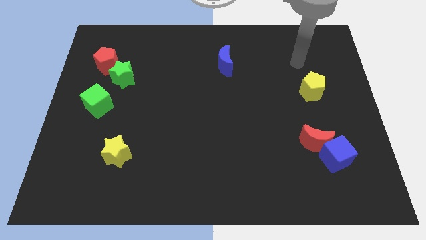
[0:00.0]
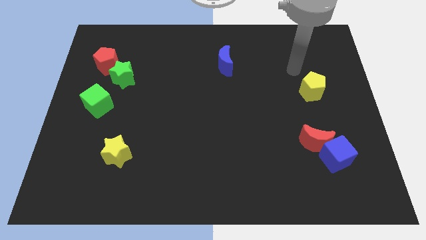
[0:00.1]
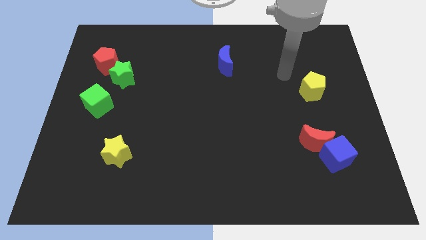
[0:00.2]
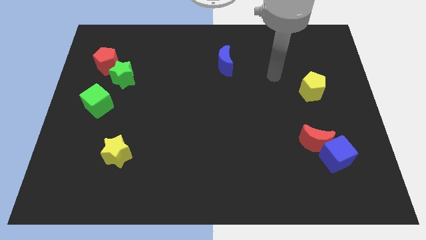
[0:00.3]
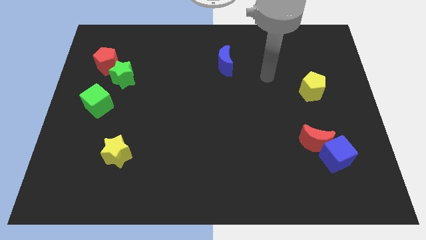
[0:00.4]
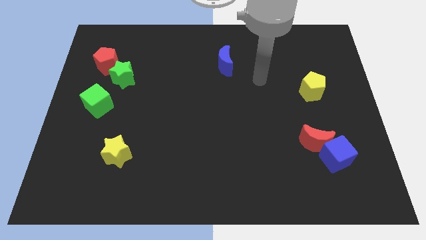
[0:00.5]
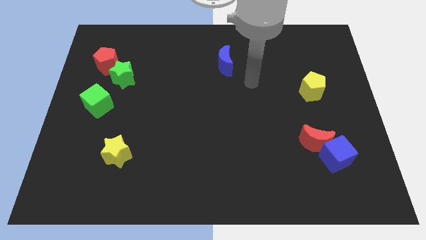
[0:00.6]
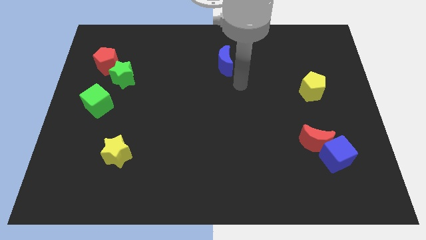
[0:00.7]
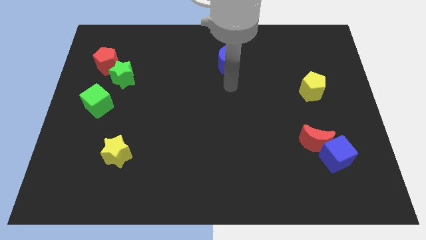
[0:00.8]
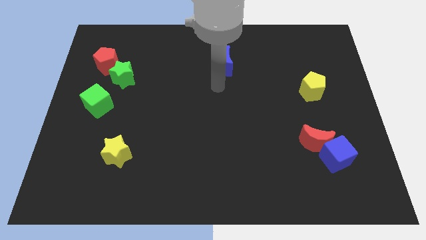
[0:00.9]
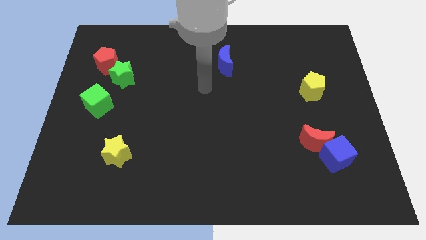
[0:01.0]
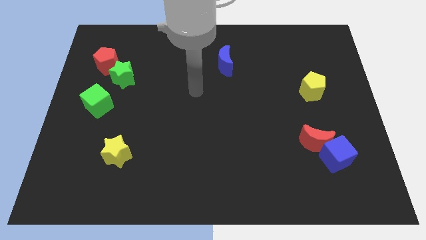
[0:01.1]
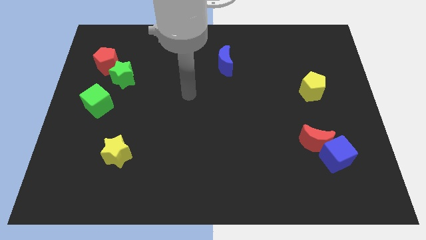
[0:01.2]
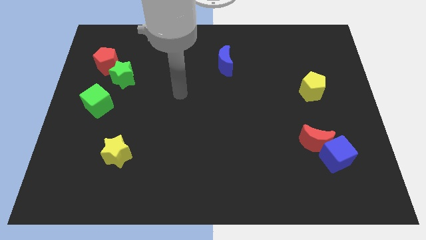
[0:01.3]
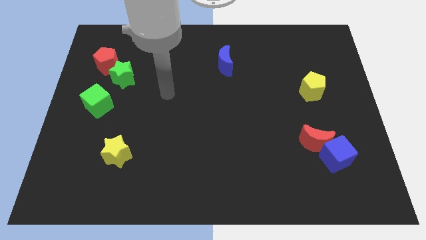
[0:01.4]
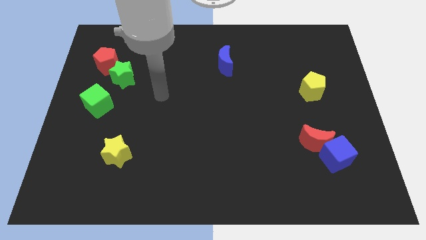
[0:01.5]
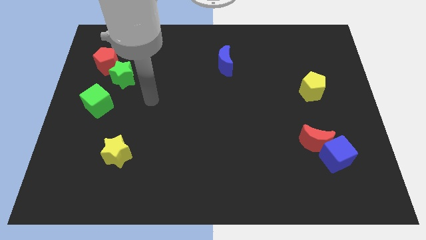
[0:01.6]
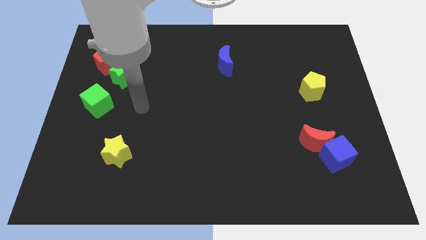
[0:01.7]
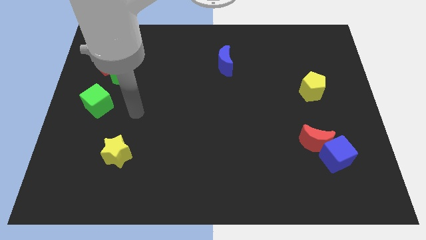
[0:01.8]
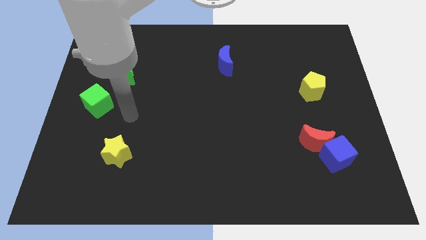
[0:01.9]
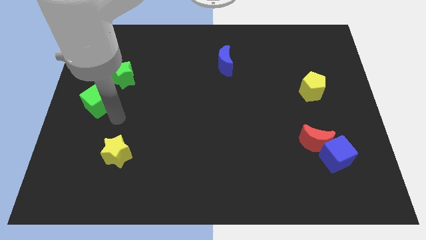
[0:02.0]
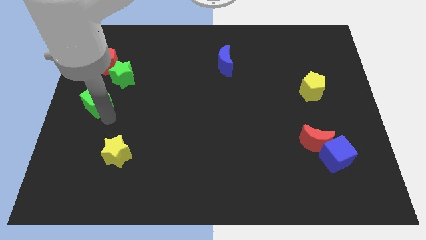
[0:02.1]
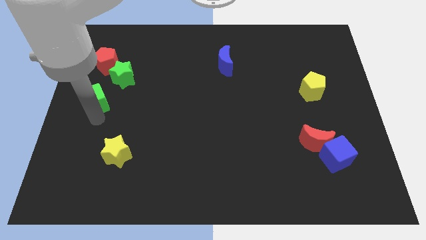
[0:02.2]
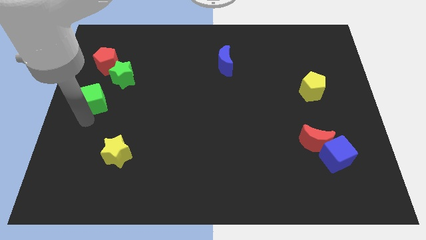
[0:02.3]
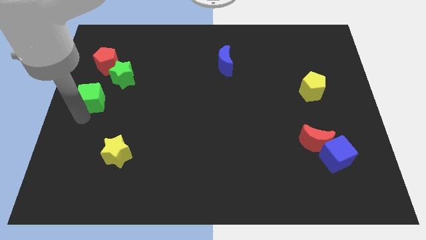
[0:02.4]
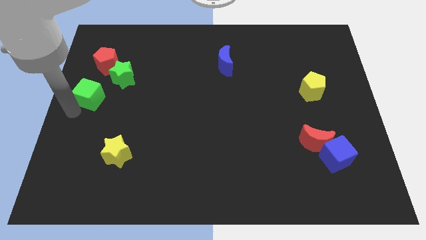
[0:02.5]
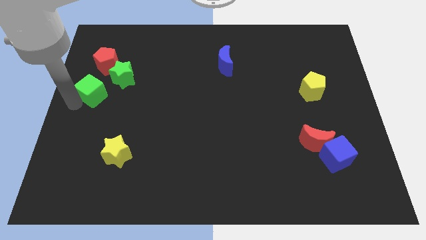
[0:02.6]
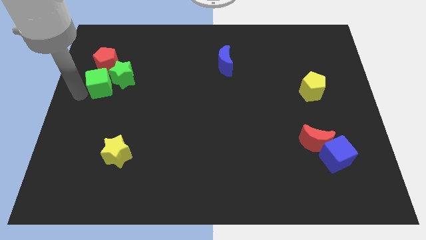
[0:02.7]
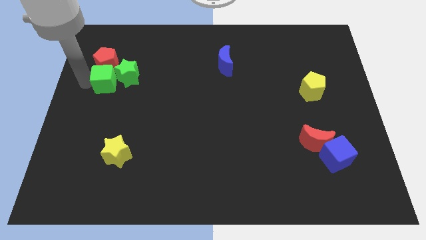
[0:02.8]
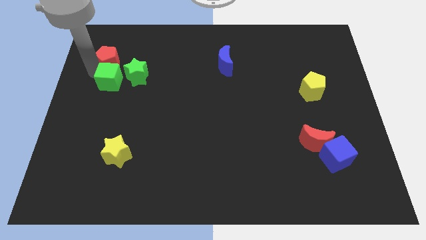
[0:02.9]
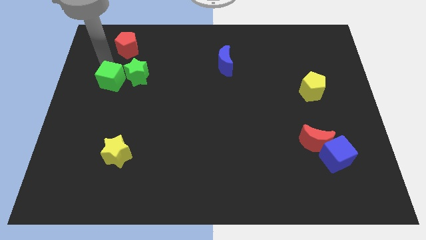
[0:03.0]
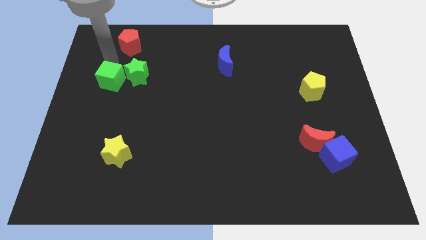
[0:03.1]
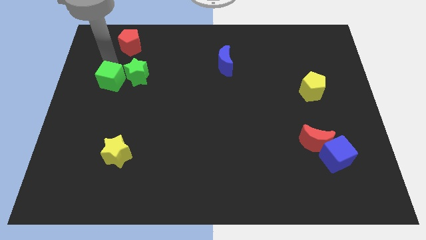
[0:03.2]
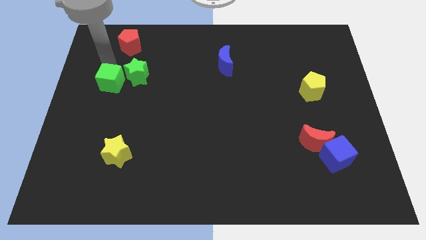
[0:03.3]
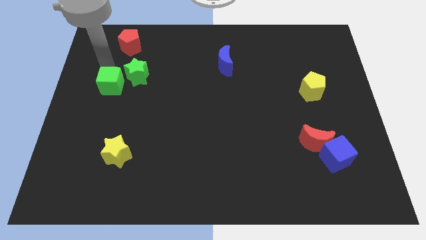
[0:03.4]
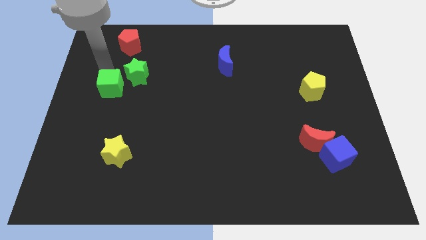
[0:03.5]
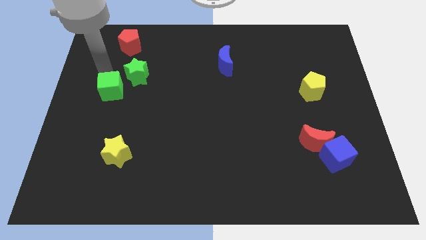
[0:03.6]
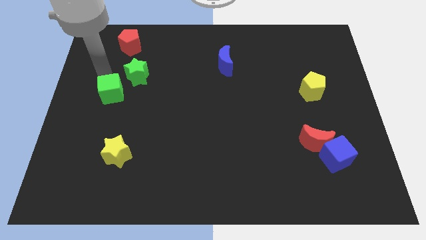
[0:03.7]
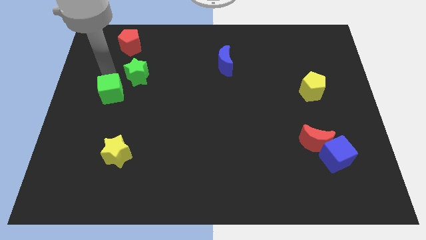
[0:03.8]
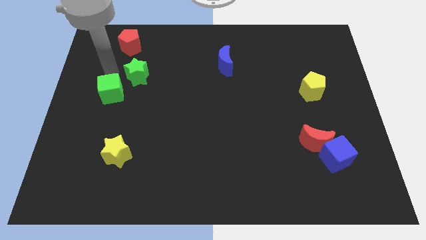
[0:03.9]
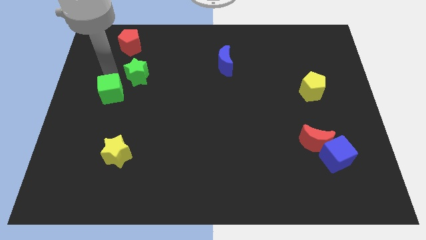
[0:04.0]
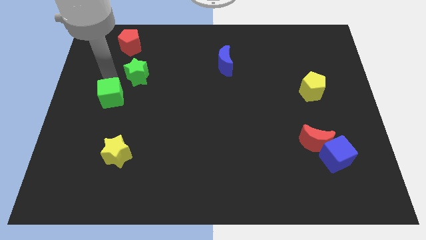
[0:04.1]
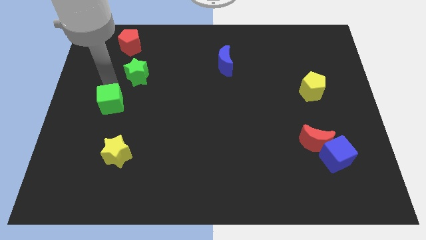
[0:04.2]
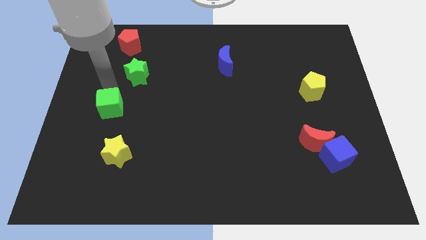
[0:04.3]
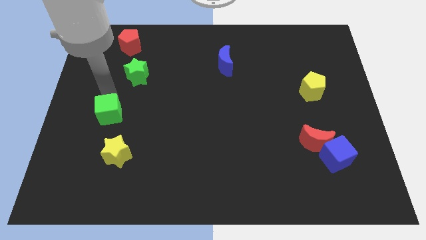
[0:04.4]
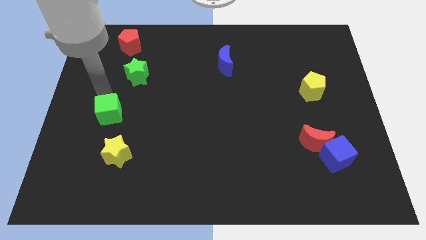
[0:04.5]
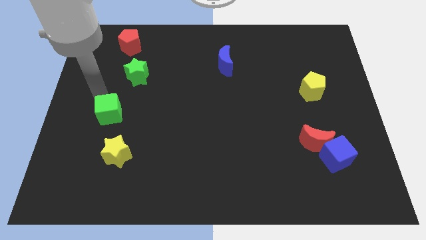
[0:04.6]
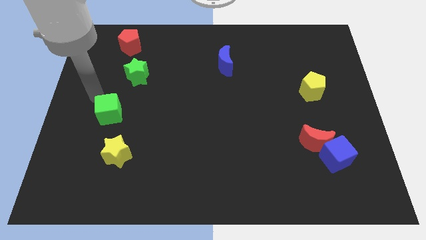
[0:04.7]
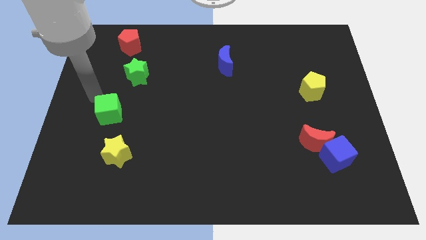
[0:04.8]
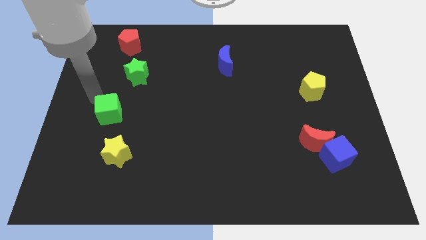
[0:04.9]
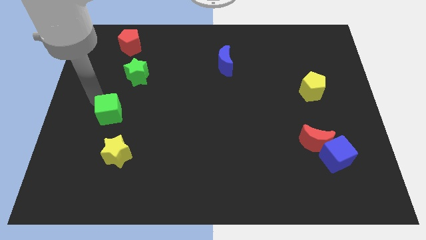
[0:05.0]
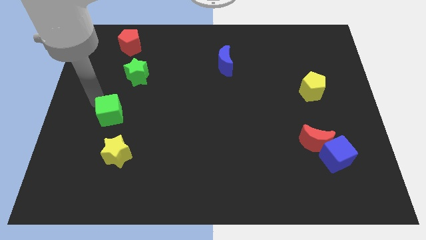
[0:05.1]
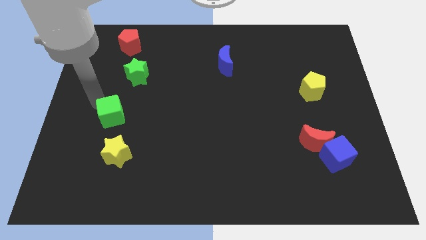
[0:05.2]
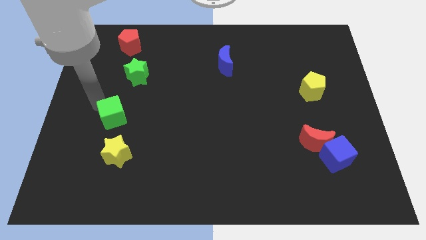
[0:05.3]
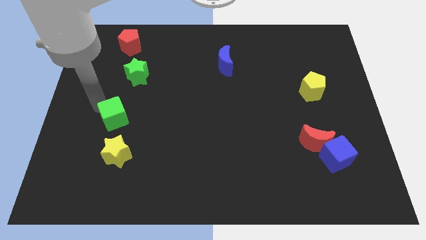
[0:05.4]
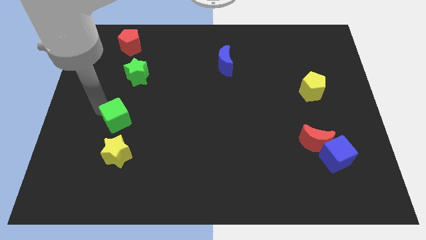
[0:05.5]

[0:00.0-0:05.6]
slide the green cube a little bit diagonally down and to the right

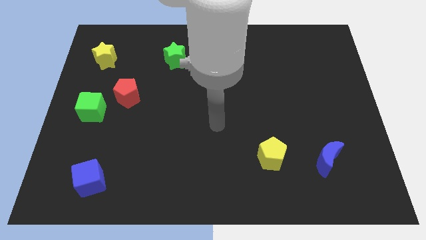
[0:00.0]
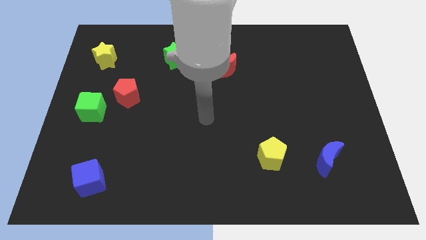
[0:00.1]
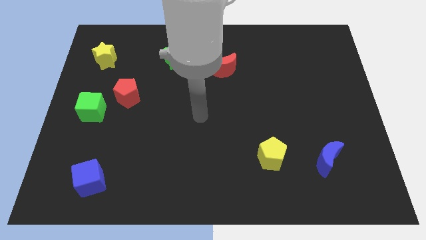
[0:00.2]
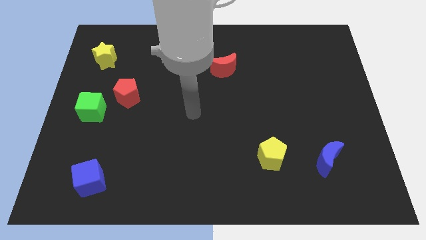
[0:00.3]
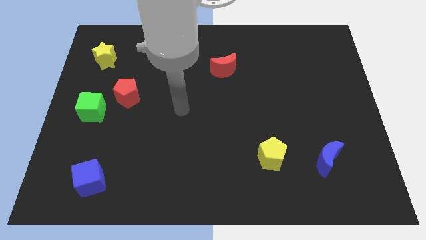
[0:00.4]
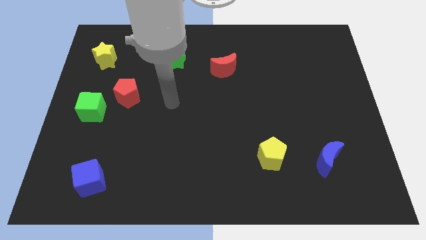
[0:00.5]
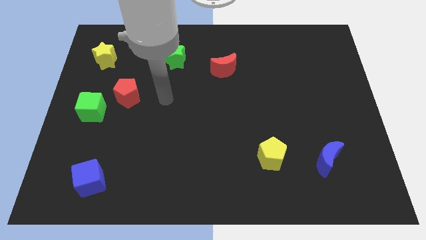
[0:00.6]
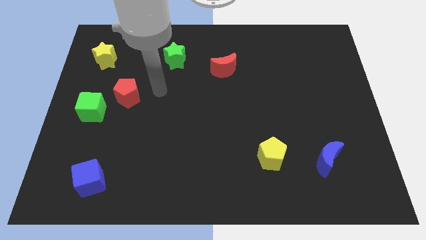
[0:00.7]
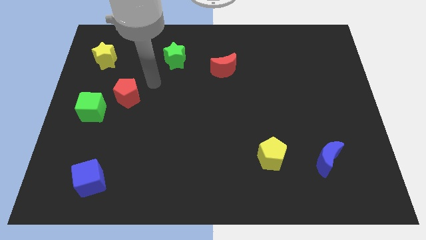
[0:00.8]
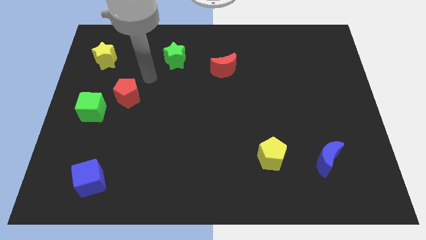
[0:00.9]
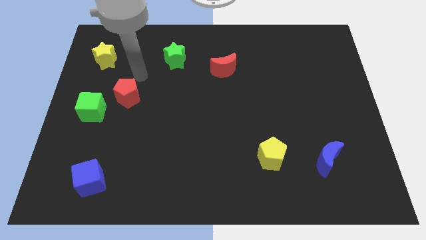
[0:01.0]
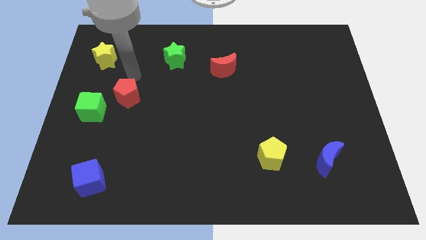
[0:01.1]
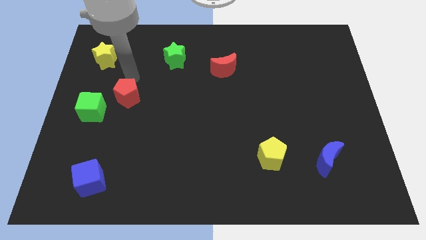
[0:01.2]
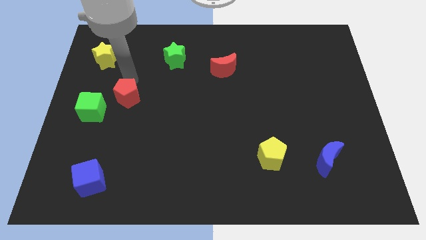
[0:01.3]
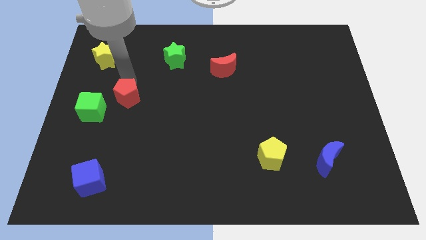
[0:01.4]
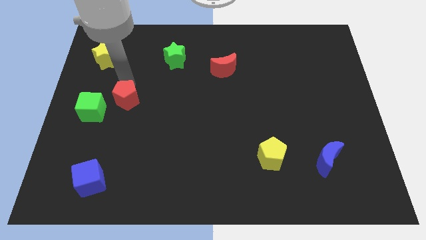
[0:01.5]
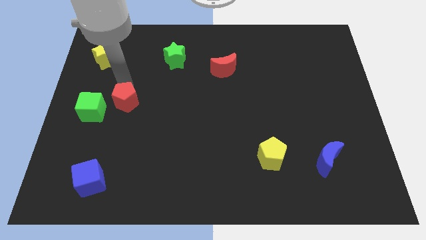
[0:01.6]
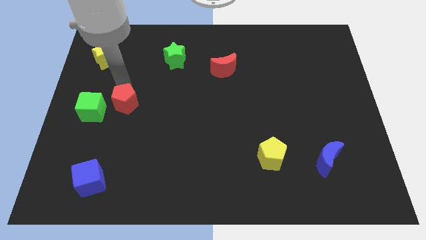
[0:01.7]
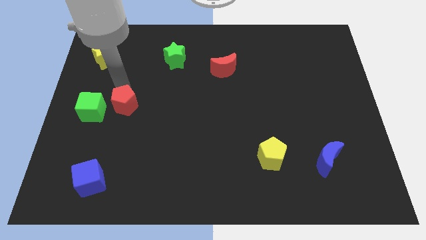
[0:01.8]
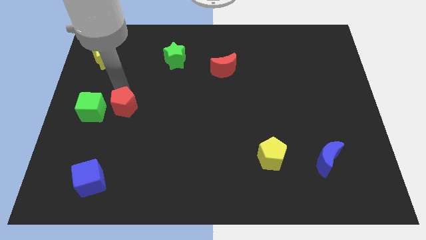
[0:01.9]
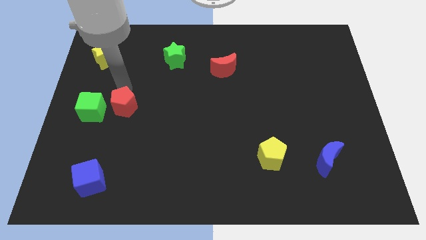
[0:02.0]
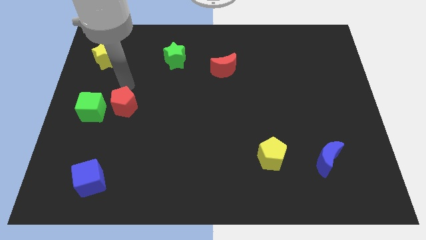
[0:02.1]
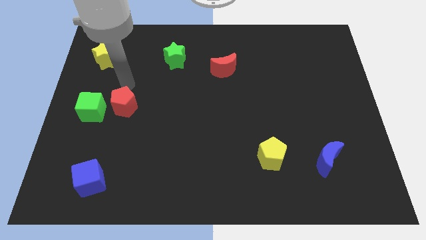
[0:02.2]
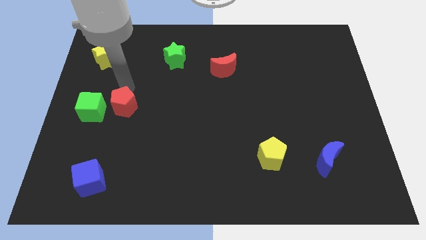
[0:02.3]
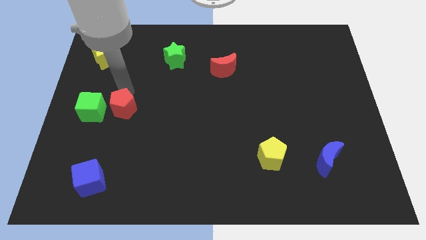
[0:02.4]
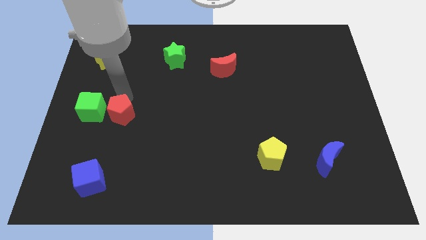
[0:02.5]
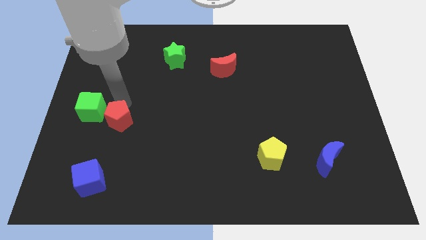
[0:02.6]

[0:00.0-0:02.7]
slide the red pentagon downwards a bit
